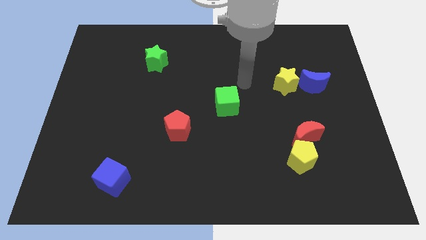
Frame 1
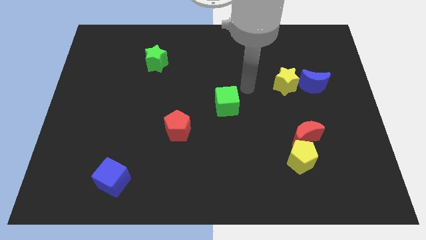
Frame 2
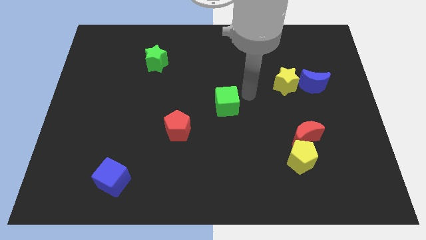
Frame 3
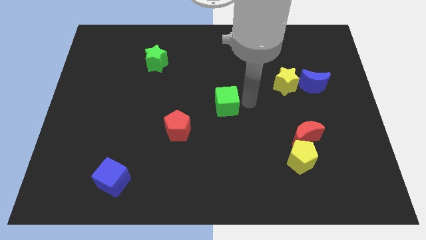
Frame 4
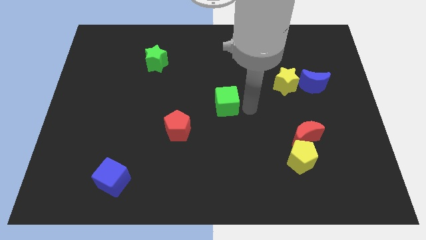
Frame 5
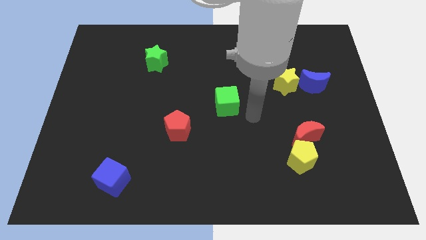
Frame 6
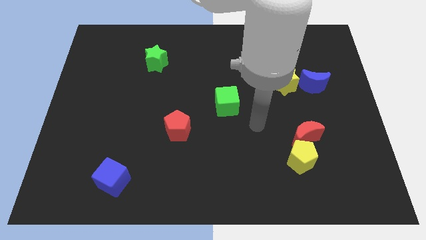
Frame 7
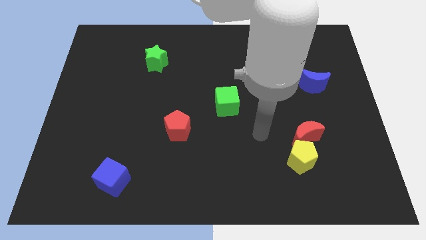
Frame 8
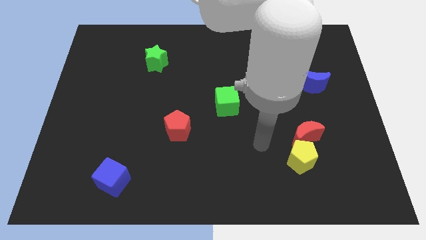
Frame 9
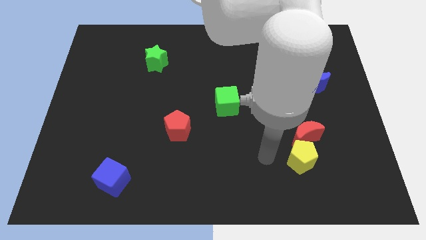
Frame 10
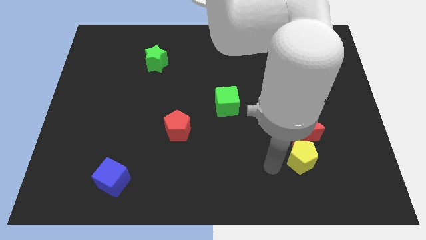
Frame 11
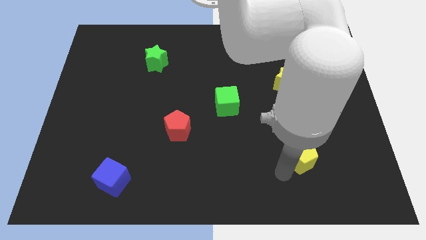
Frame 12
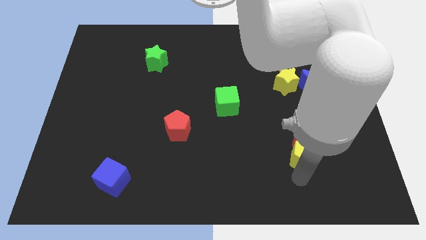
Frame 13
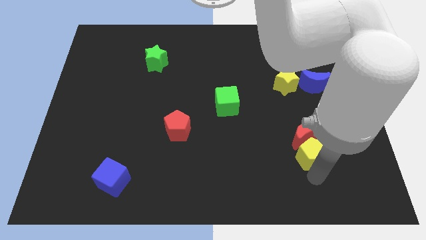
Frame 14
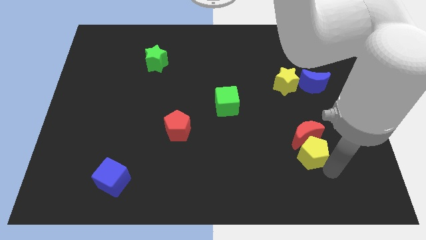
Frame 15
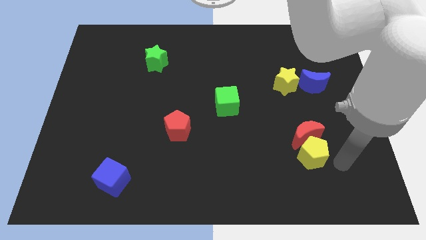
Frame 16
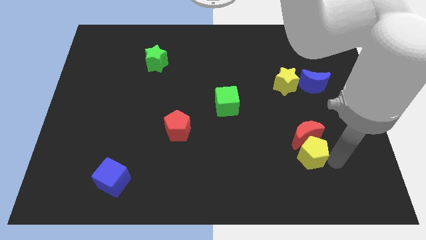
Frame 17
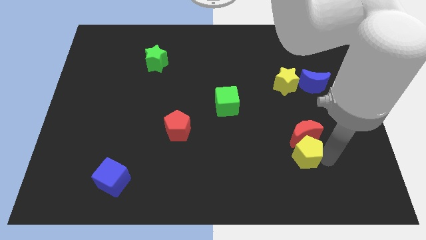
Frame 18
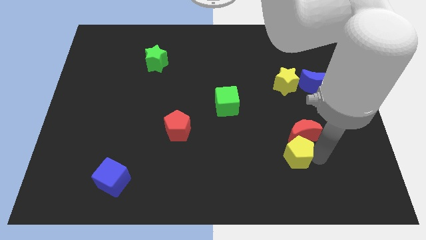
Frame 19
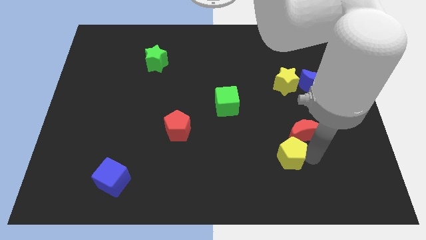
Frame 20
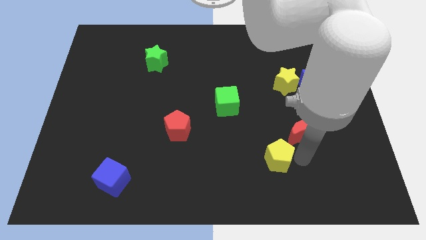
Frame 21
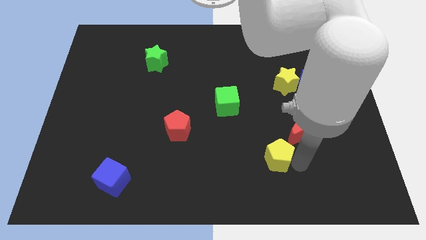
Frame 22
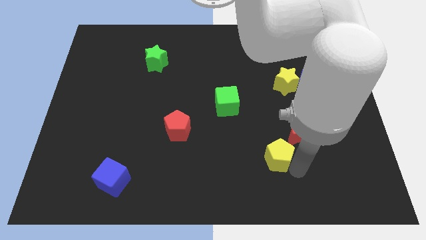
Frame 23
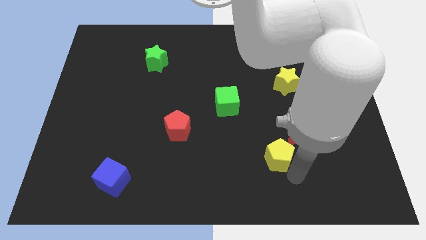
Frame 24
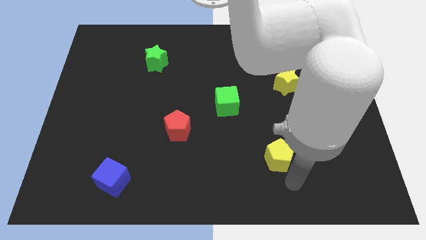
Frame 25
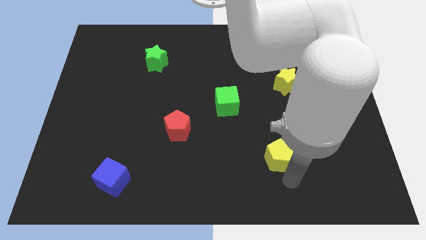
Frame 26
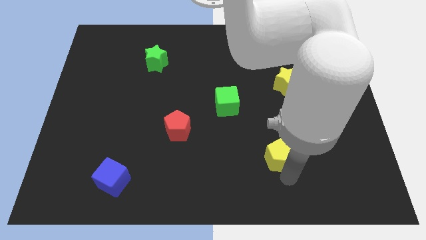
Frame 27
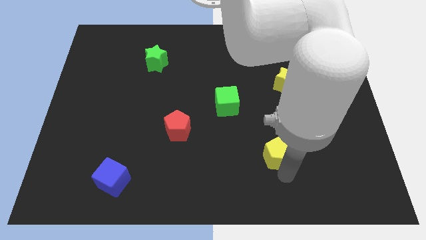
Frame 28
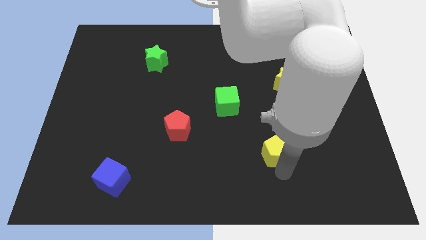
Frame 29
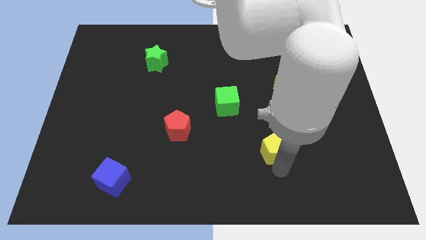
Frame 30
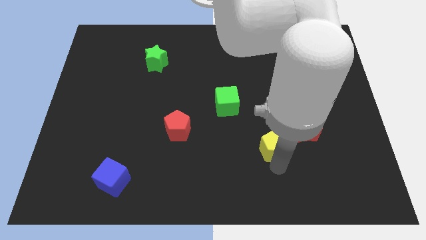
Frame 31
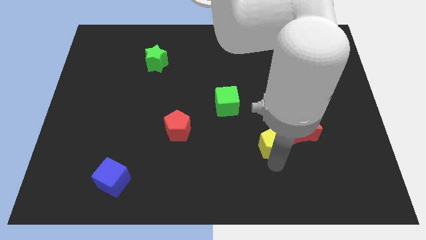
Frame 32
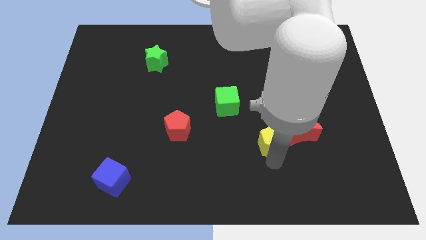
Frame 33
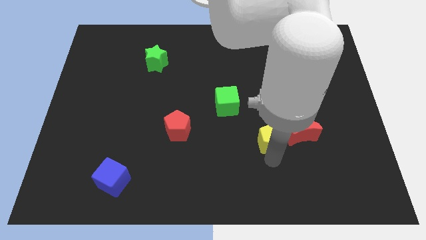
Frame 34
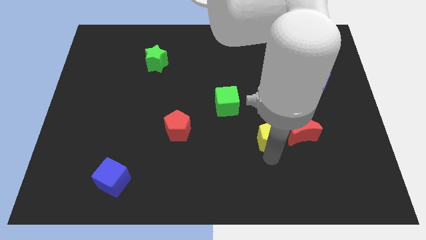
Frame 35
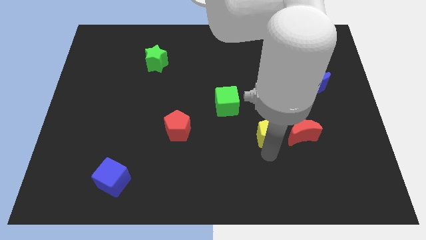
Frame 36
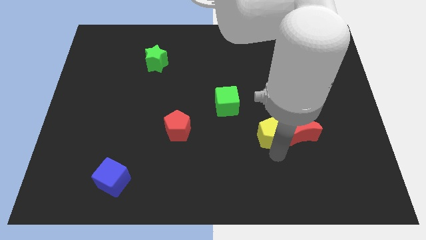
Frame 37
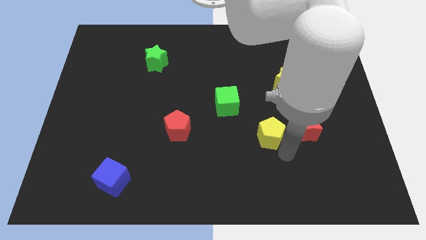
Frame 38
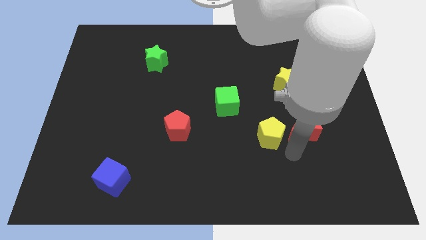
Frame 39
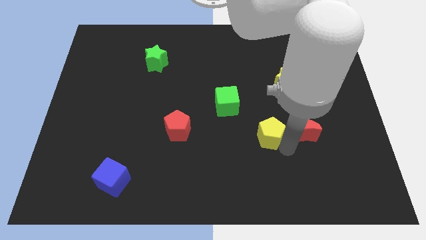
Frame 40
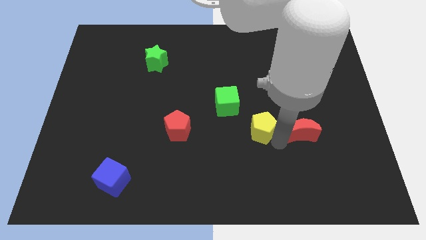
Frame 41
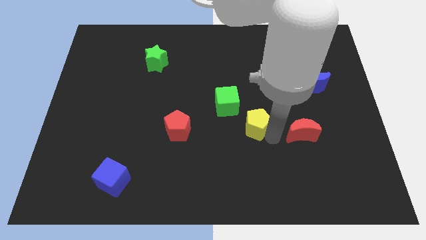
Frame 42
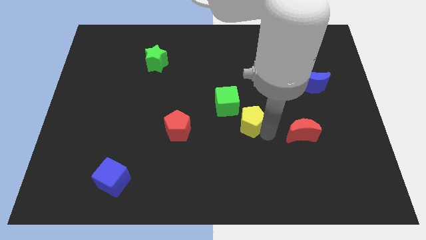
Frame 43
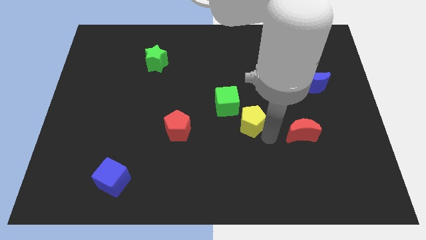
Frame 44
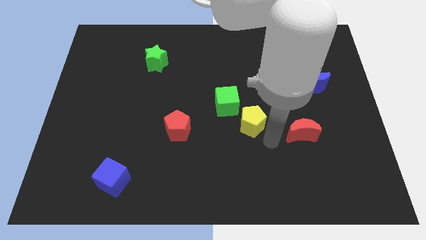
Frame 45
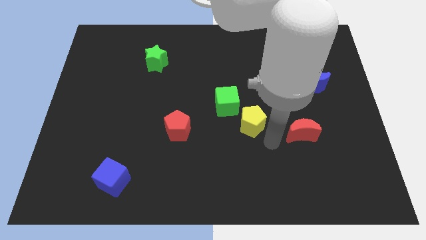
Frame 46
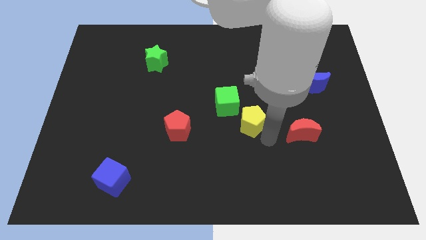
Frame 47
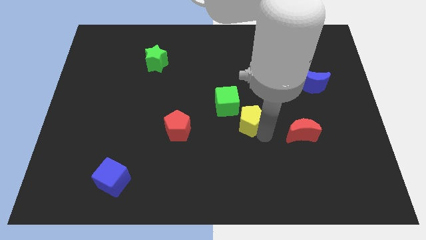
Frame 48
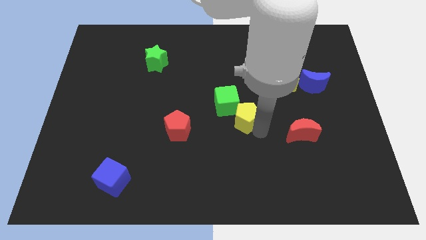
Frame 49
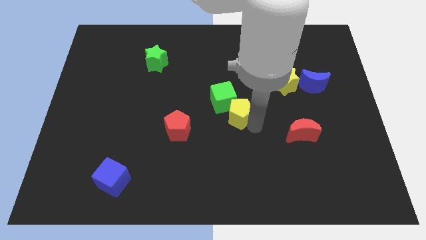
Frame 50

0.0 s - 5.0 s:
slide the yellow pentagon close to the green cube

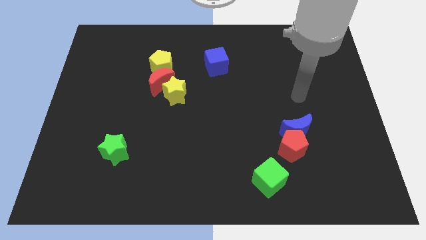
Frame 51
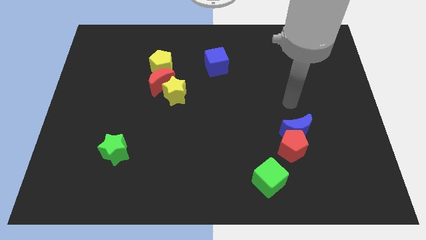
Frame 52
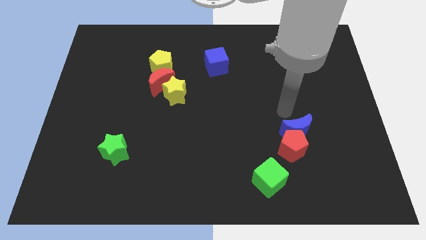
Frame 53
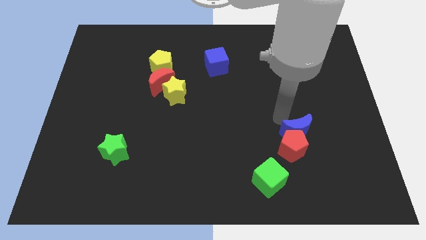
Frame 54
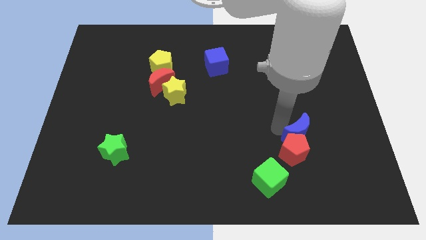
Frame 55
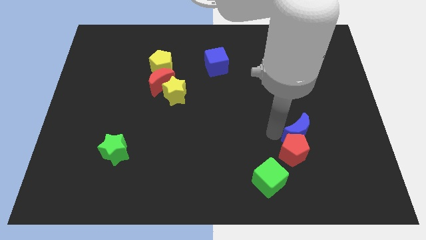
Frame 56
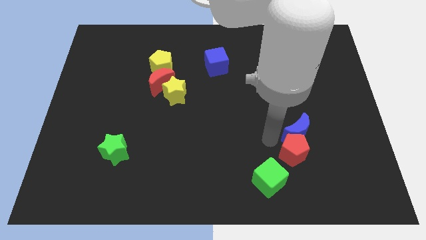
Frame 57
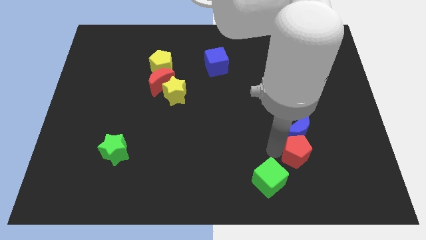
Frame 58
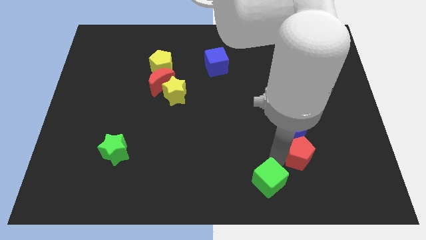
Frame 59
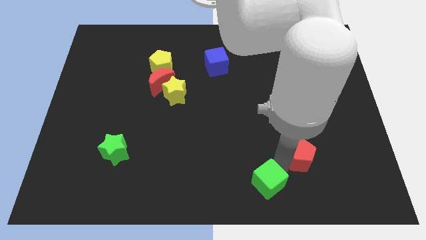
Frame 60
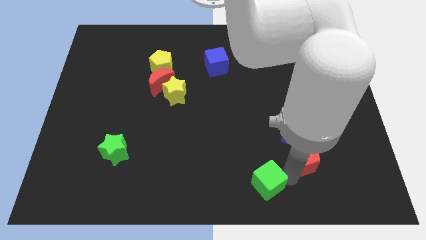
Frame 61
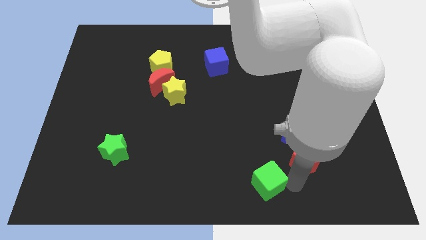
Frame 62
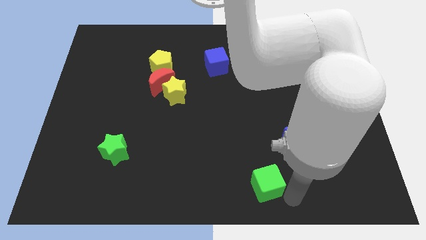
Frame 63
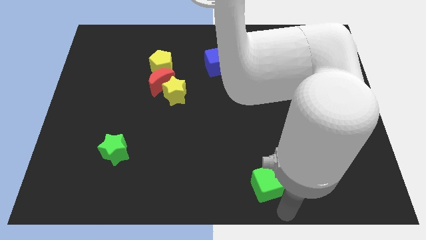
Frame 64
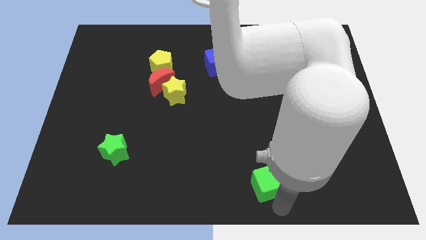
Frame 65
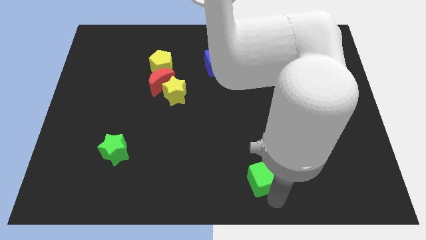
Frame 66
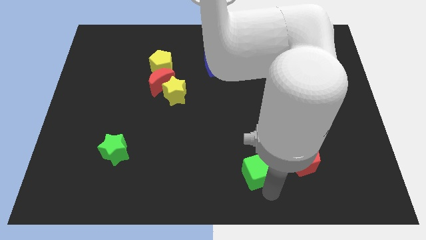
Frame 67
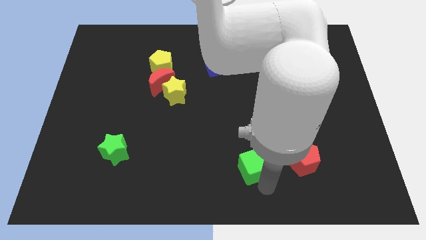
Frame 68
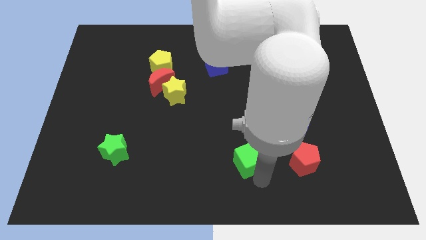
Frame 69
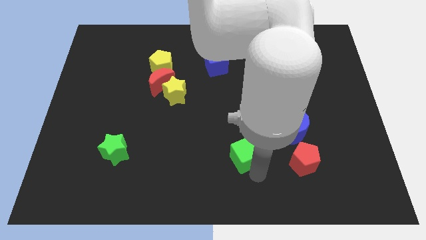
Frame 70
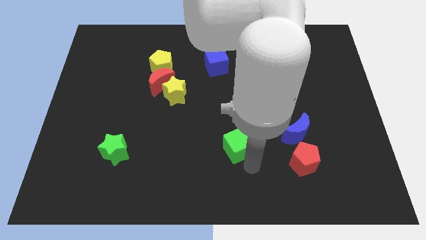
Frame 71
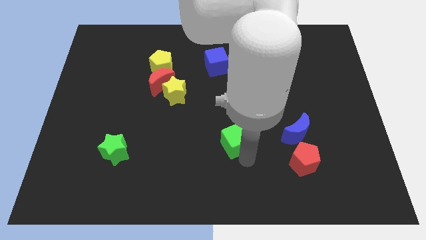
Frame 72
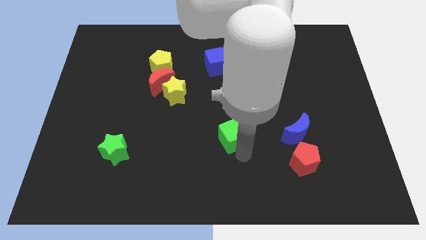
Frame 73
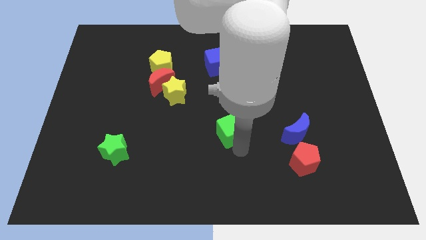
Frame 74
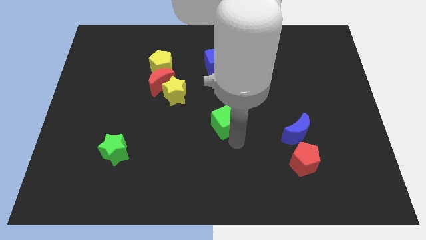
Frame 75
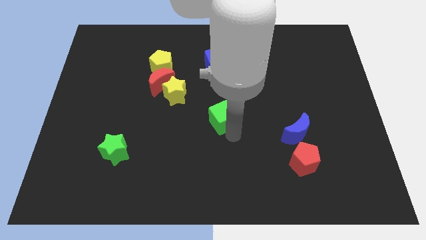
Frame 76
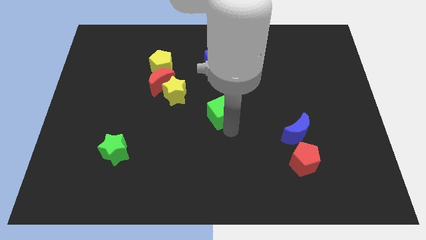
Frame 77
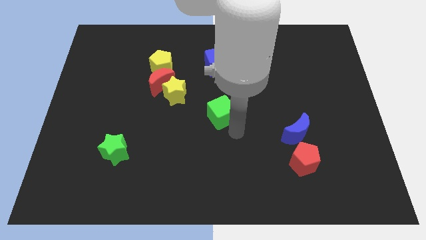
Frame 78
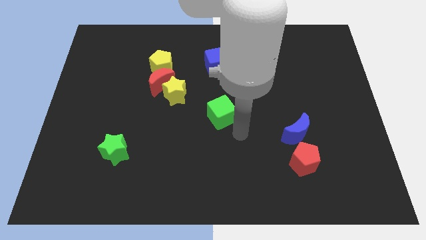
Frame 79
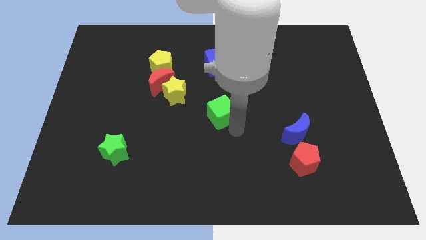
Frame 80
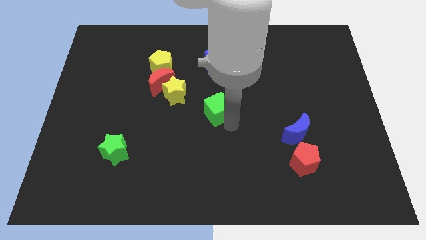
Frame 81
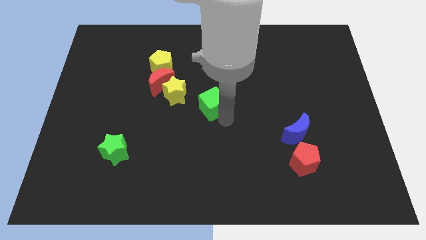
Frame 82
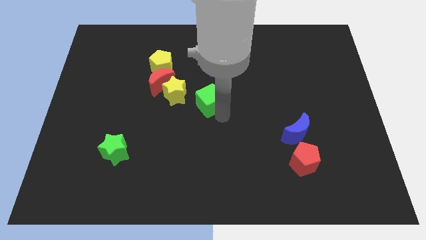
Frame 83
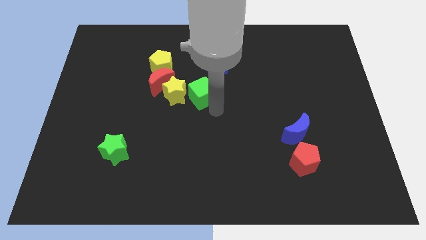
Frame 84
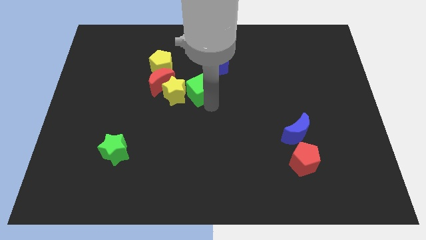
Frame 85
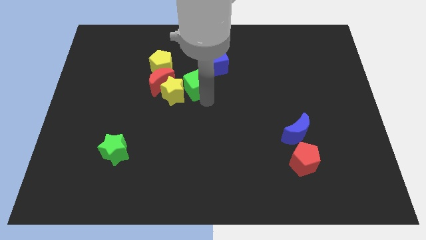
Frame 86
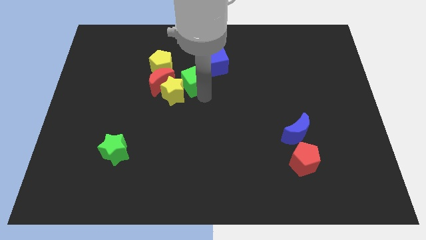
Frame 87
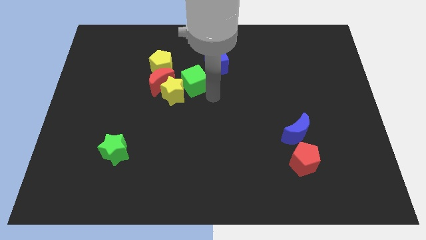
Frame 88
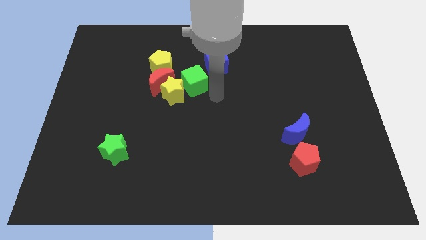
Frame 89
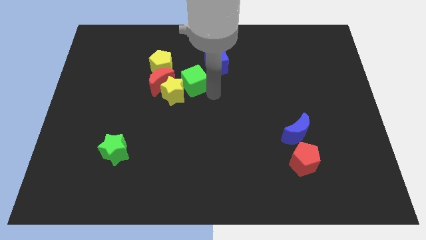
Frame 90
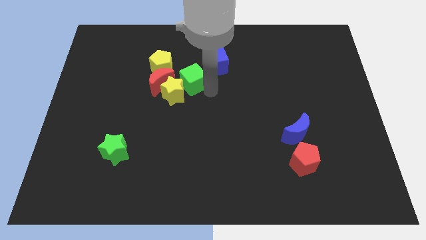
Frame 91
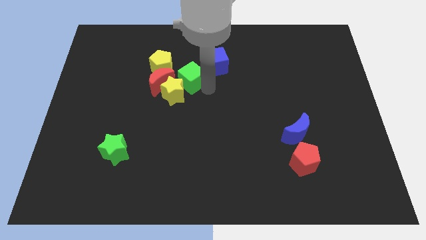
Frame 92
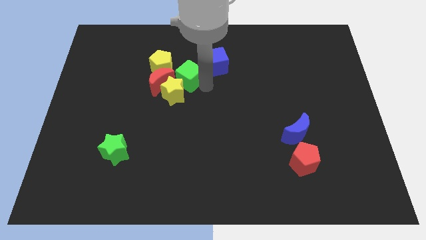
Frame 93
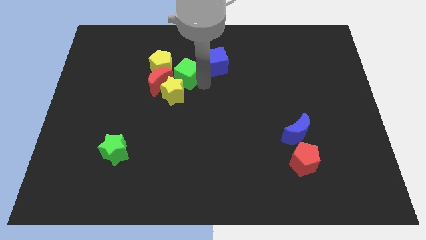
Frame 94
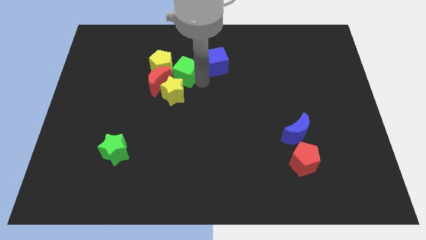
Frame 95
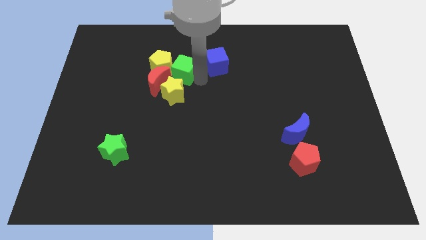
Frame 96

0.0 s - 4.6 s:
move the green cube to the yellow pentagon
